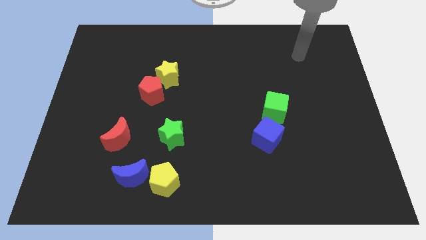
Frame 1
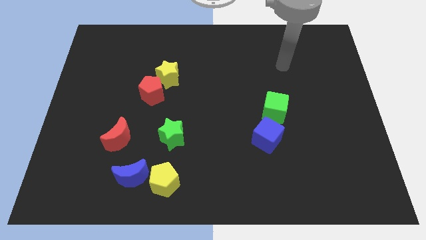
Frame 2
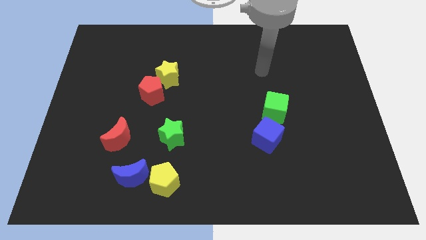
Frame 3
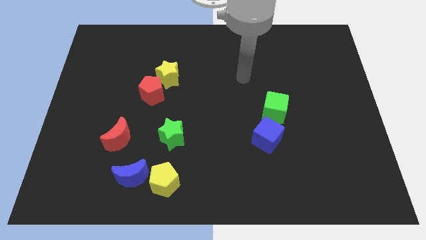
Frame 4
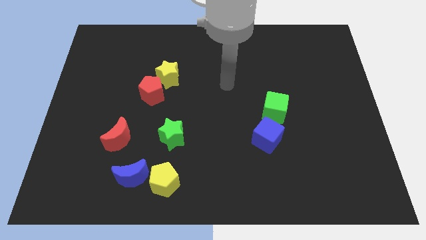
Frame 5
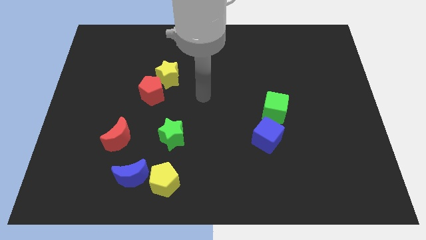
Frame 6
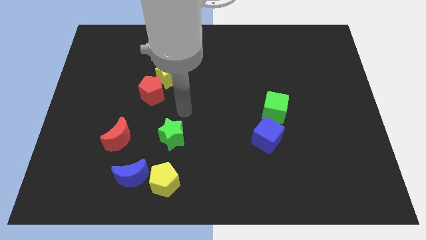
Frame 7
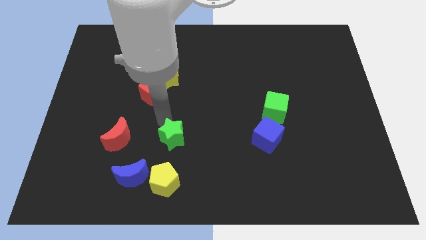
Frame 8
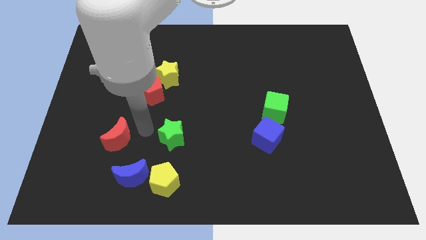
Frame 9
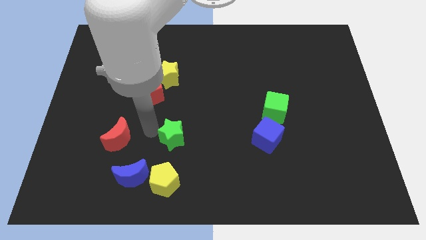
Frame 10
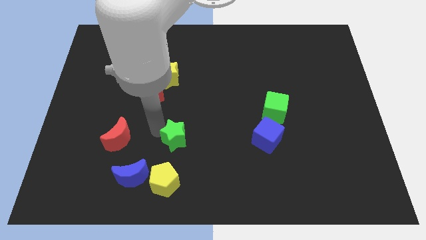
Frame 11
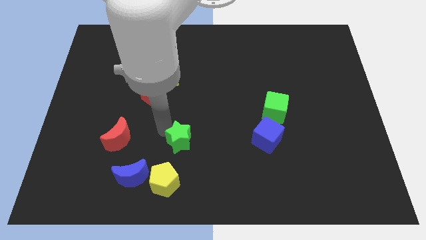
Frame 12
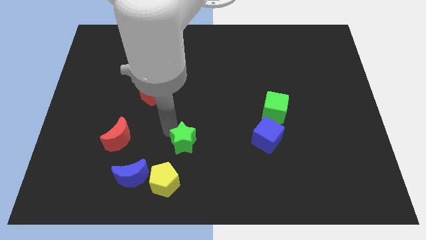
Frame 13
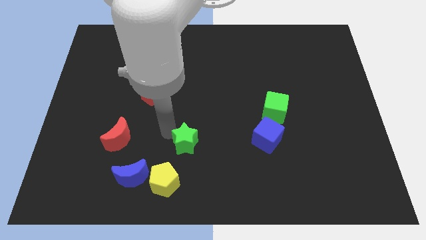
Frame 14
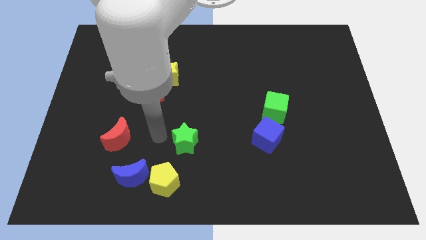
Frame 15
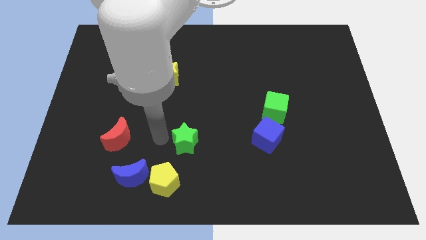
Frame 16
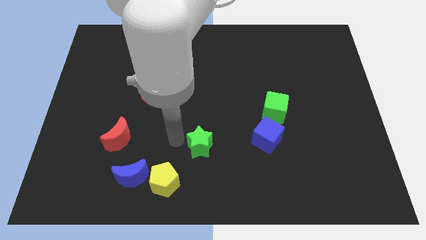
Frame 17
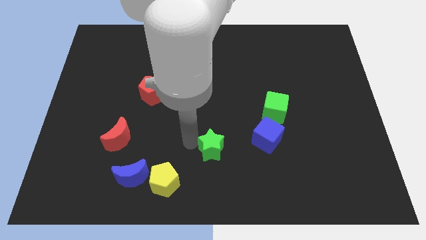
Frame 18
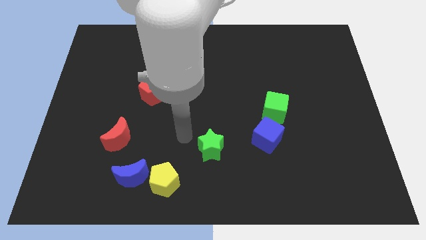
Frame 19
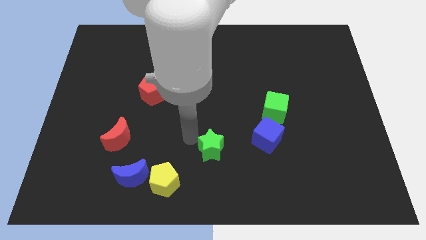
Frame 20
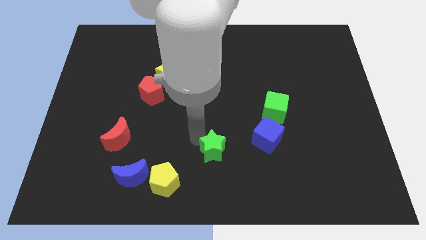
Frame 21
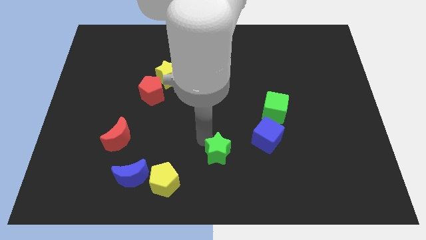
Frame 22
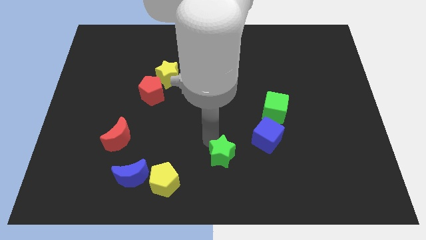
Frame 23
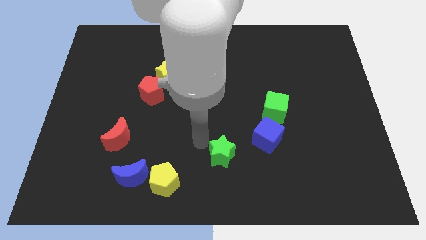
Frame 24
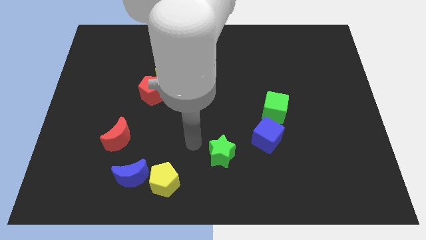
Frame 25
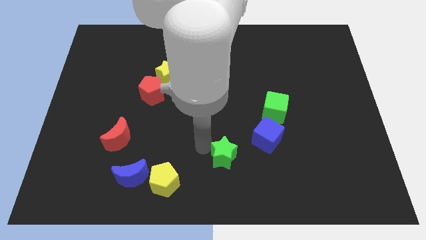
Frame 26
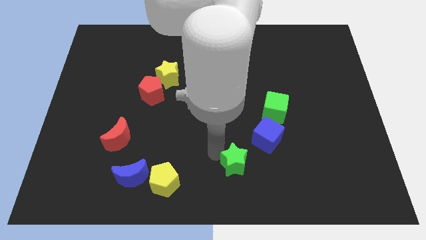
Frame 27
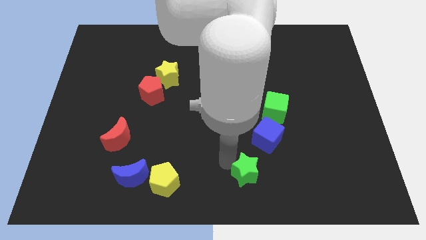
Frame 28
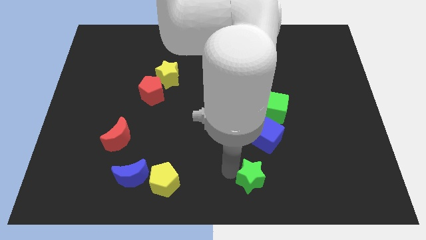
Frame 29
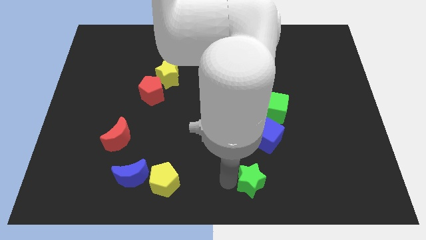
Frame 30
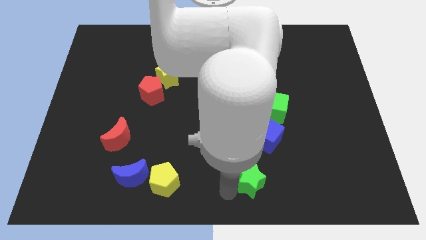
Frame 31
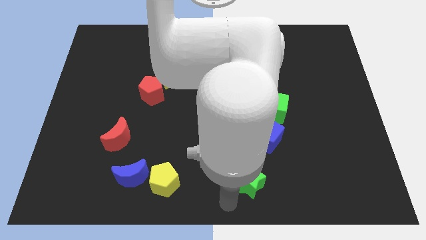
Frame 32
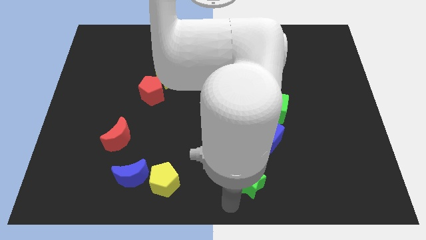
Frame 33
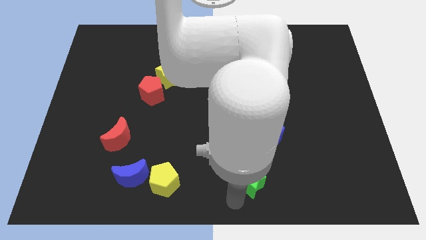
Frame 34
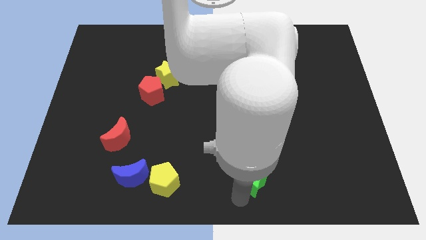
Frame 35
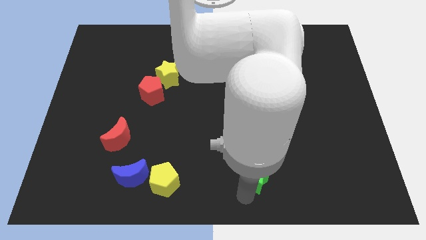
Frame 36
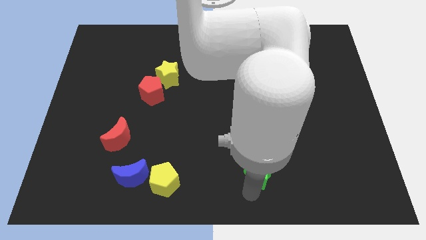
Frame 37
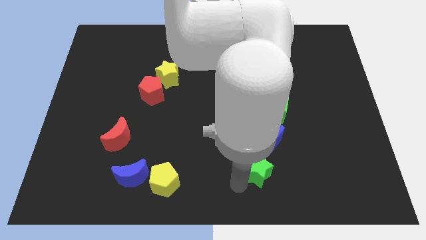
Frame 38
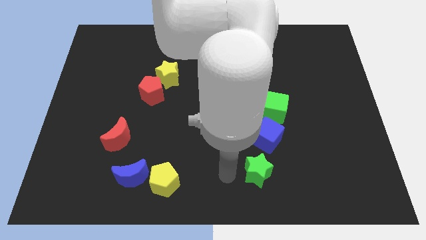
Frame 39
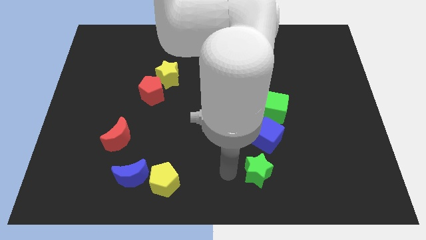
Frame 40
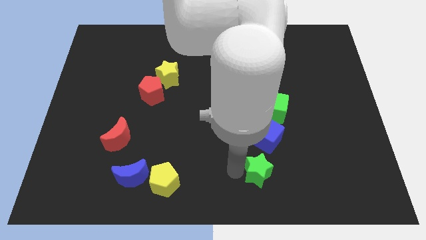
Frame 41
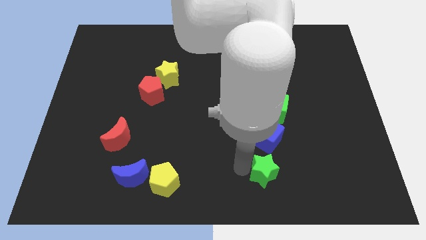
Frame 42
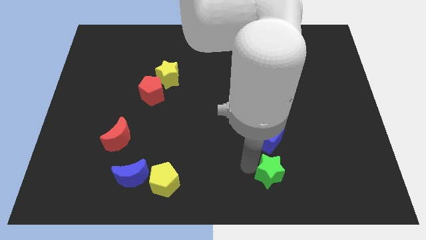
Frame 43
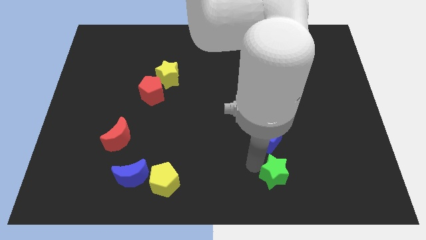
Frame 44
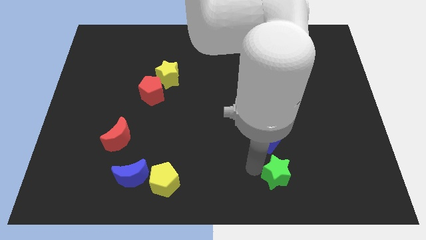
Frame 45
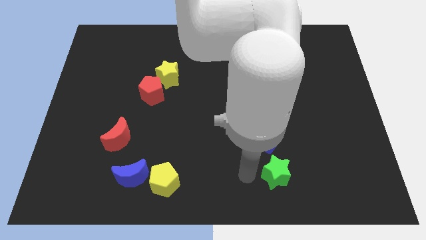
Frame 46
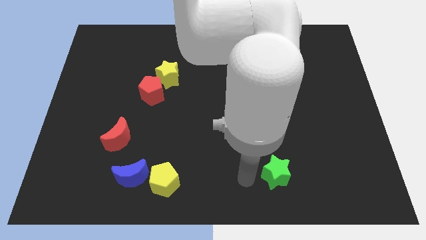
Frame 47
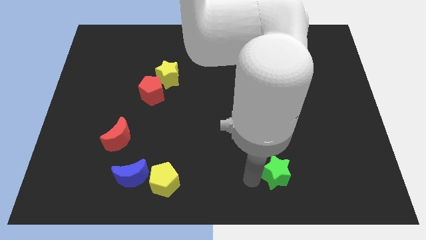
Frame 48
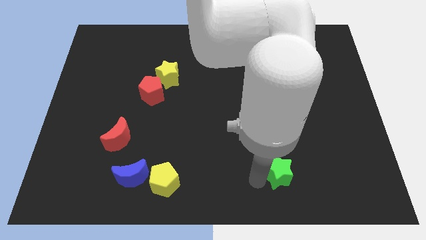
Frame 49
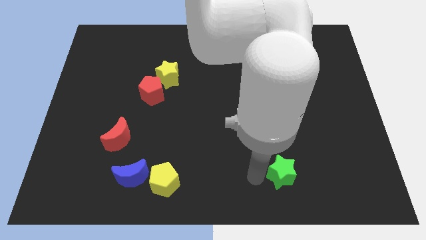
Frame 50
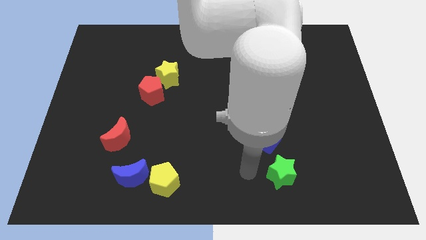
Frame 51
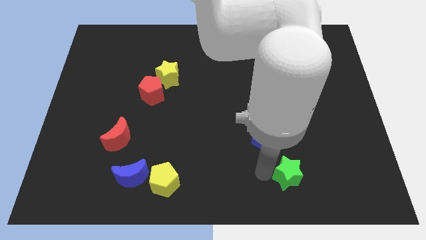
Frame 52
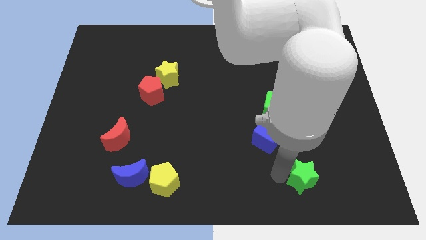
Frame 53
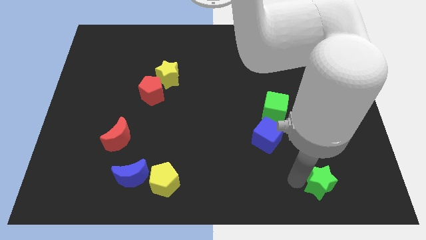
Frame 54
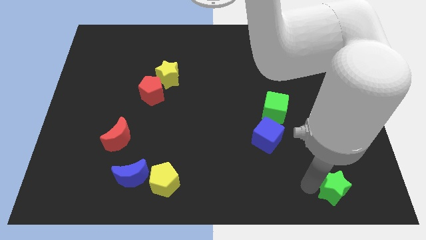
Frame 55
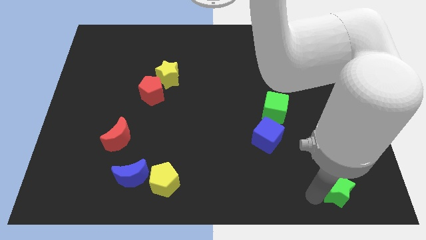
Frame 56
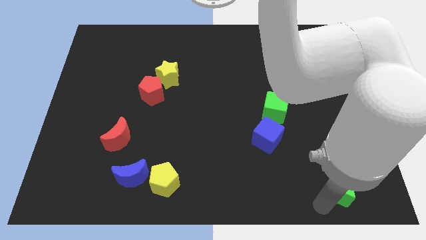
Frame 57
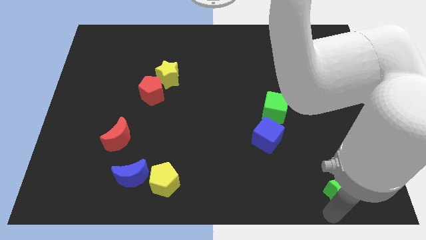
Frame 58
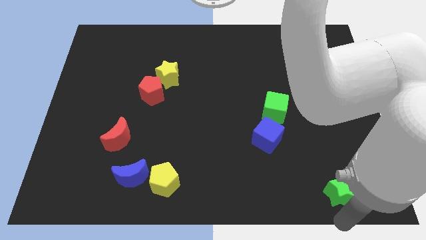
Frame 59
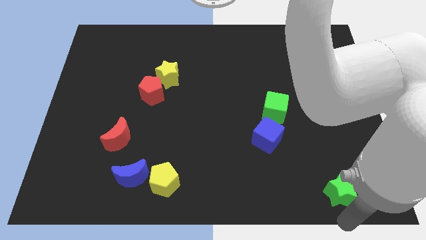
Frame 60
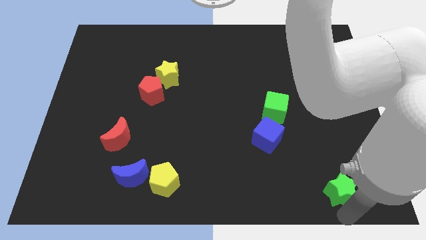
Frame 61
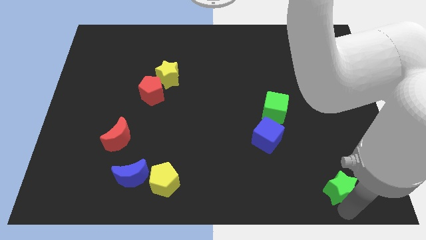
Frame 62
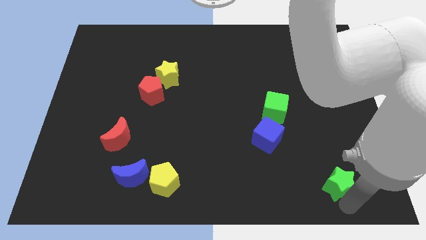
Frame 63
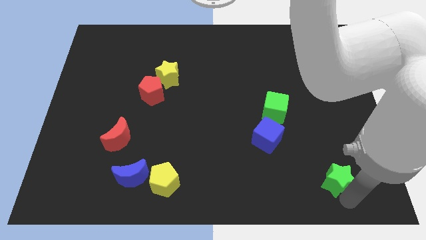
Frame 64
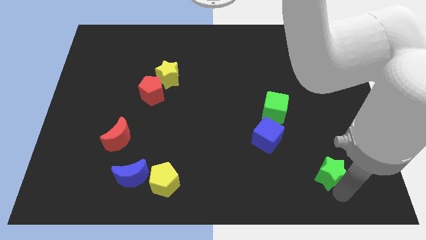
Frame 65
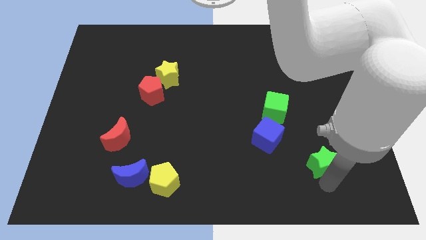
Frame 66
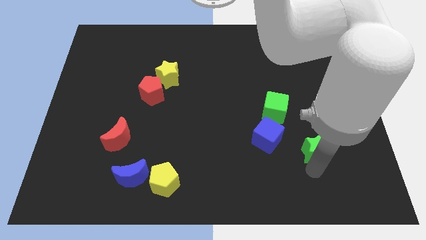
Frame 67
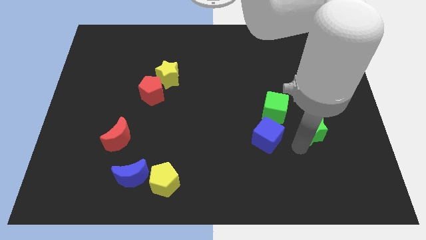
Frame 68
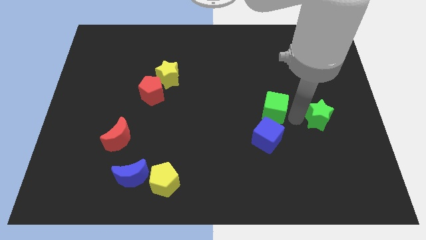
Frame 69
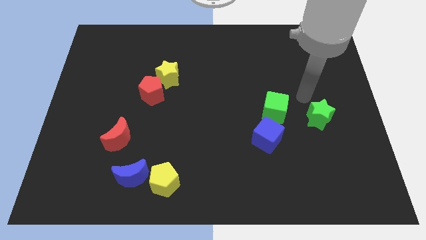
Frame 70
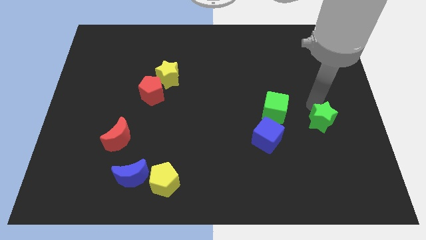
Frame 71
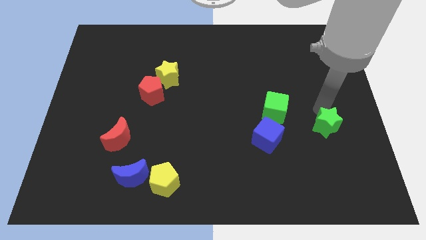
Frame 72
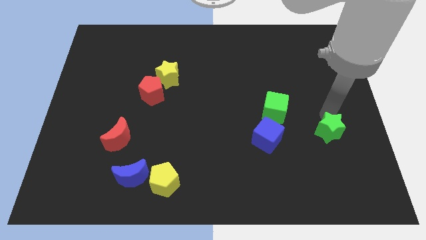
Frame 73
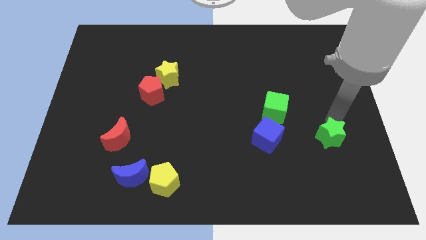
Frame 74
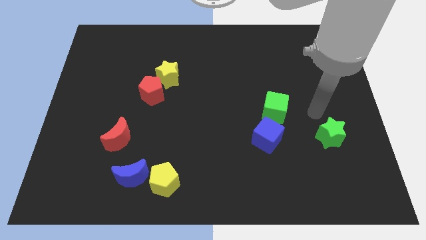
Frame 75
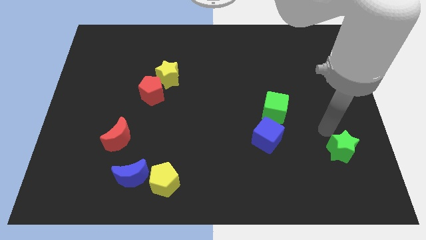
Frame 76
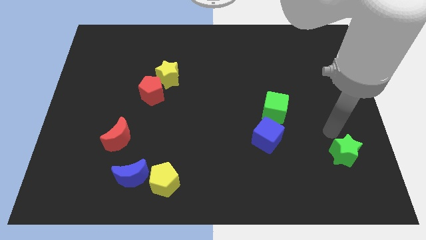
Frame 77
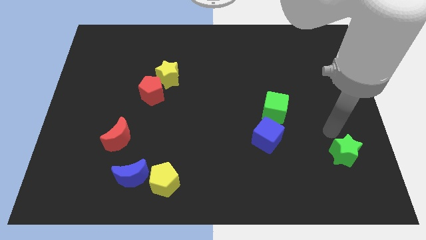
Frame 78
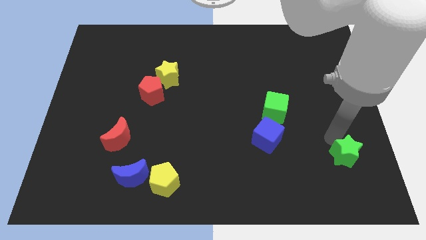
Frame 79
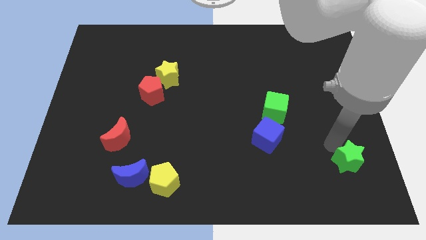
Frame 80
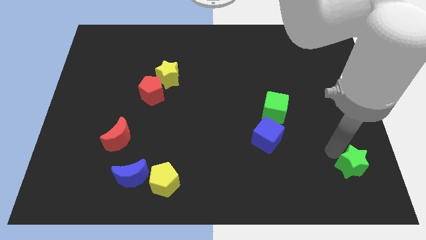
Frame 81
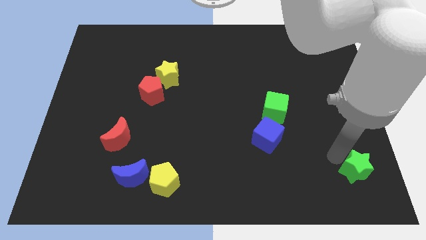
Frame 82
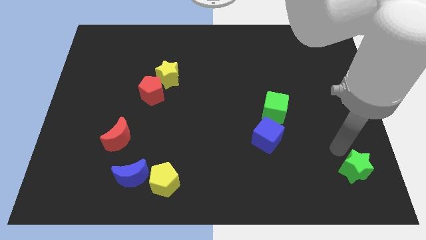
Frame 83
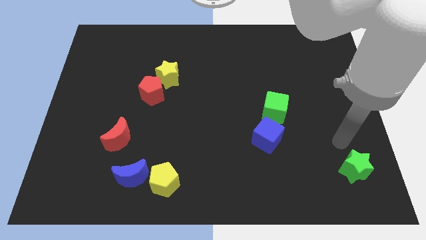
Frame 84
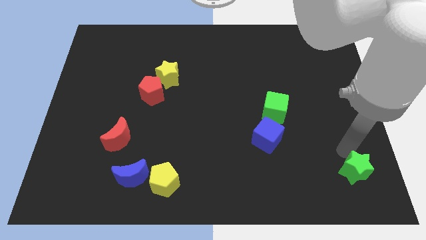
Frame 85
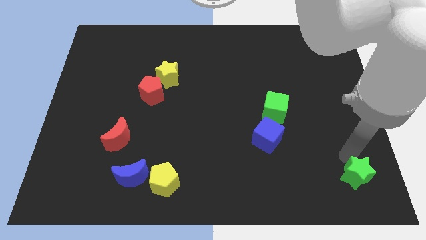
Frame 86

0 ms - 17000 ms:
push the green star to the bottom right corner
